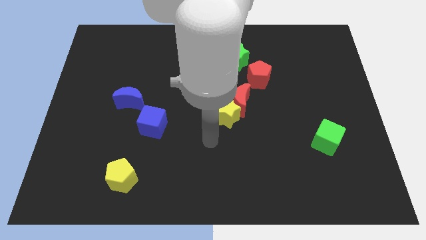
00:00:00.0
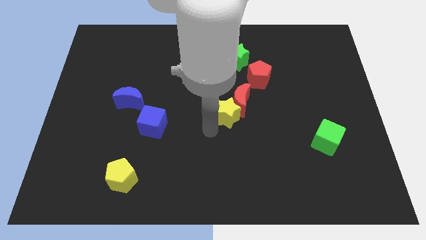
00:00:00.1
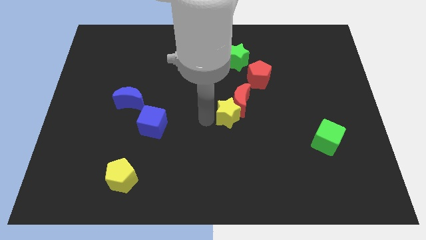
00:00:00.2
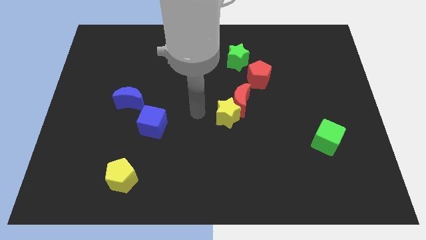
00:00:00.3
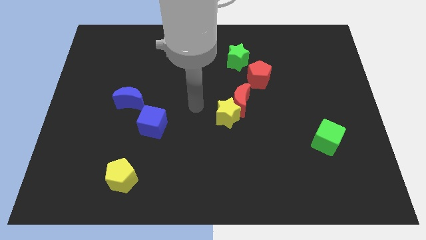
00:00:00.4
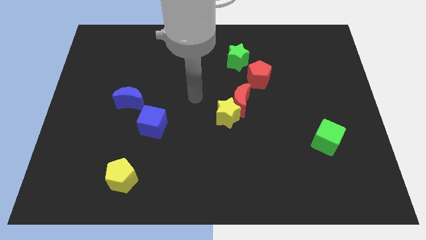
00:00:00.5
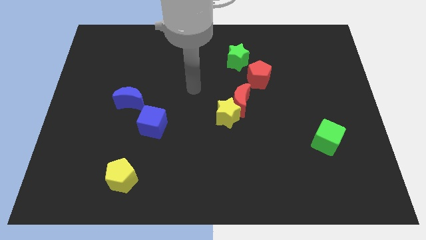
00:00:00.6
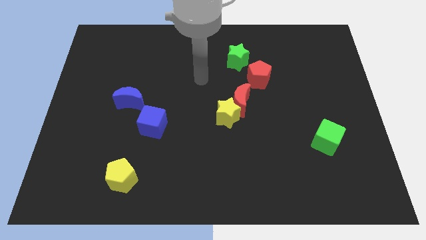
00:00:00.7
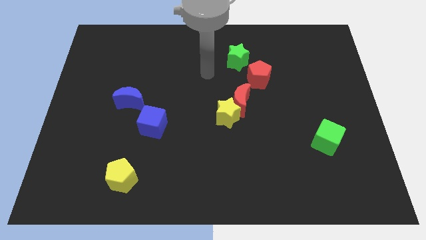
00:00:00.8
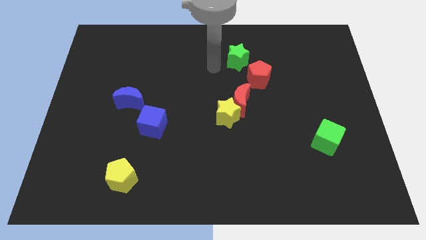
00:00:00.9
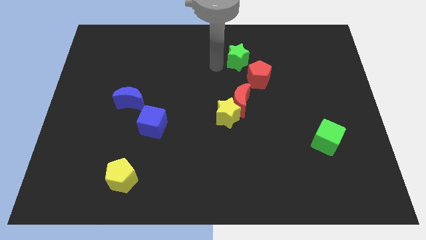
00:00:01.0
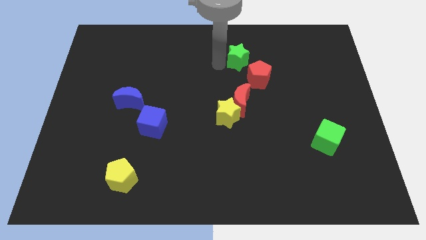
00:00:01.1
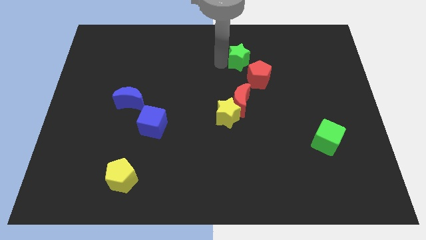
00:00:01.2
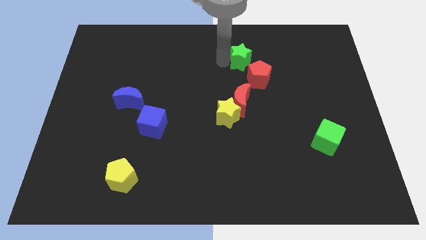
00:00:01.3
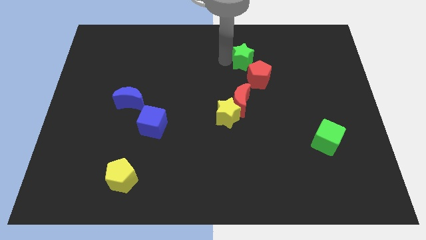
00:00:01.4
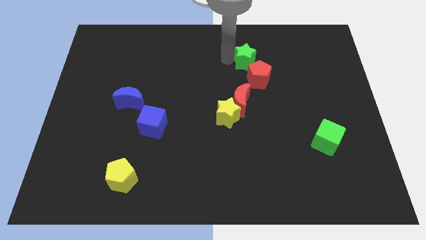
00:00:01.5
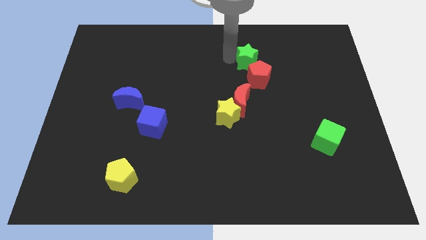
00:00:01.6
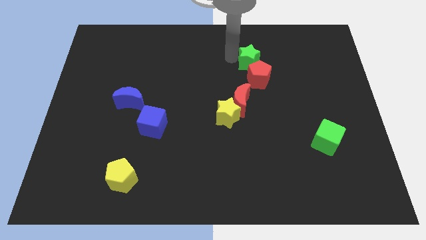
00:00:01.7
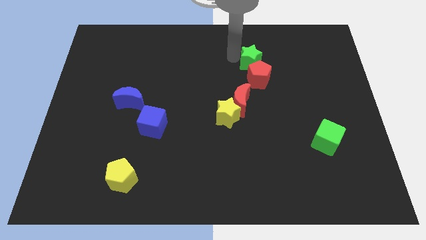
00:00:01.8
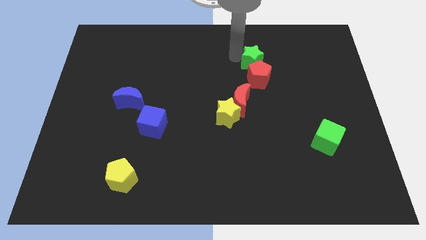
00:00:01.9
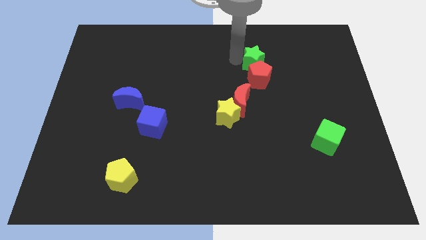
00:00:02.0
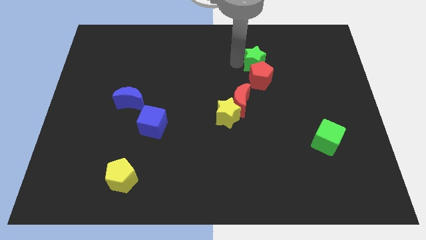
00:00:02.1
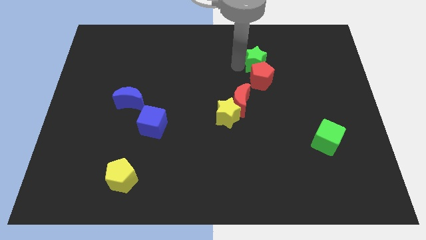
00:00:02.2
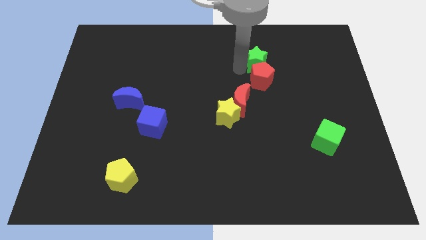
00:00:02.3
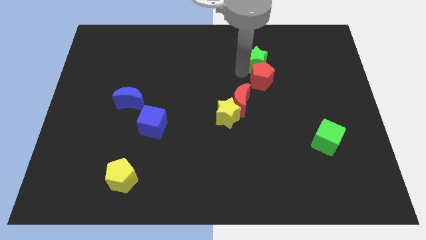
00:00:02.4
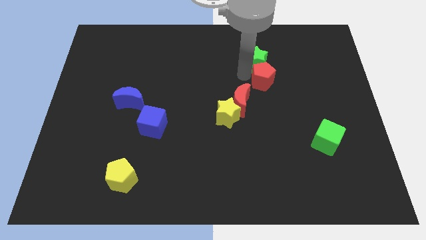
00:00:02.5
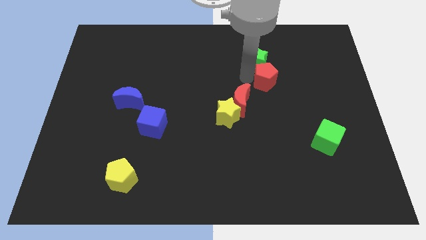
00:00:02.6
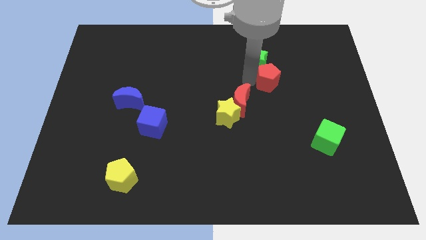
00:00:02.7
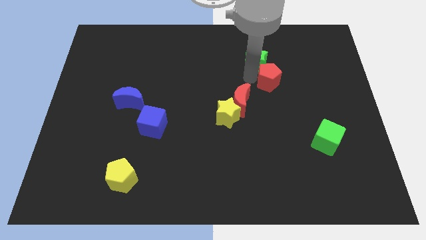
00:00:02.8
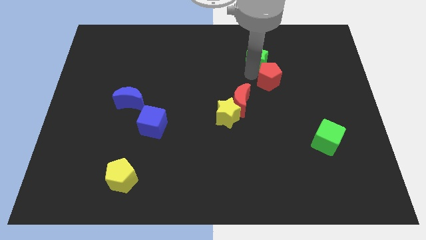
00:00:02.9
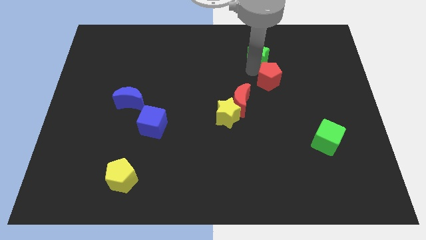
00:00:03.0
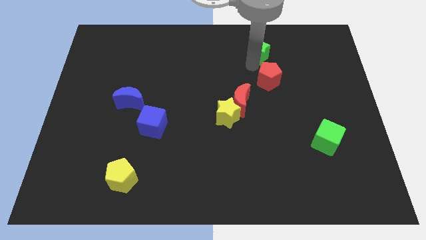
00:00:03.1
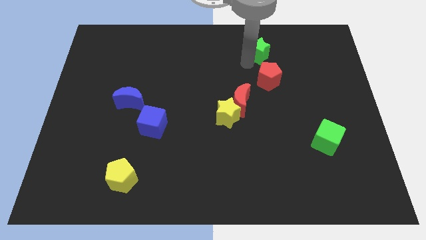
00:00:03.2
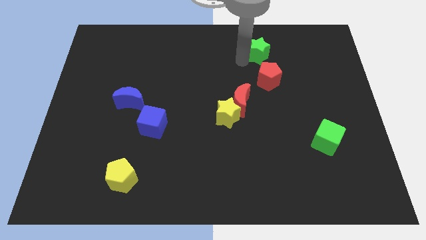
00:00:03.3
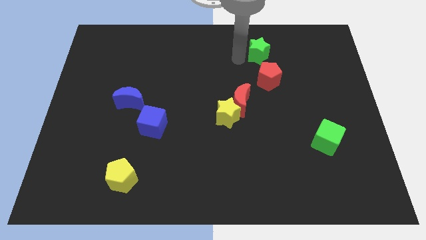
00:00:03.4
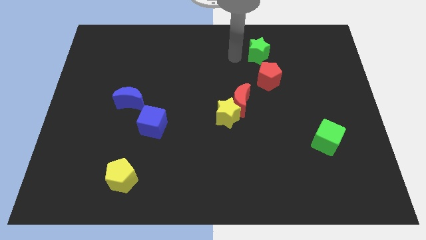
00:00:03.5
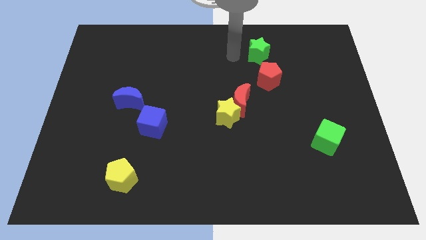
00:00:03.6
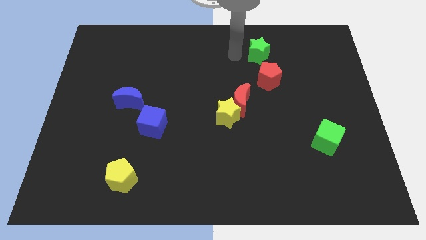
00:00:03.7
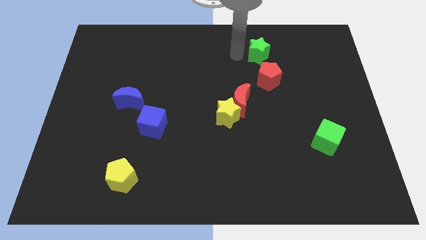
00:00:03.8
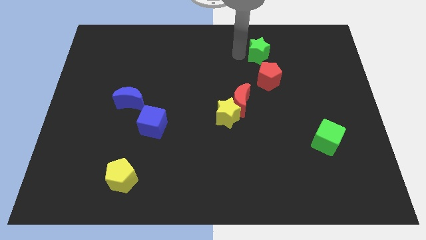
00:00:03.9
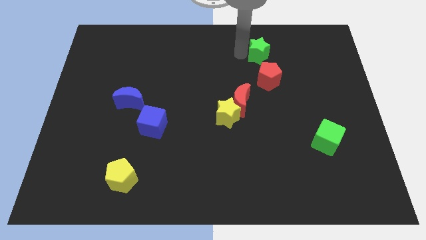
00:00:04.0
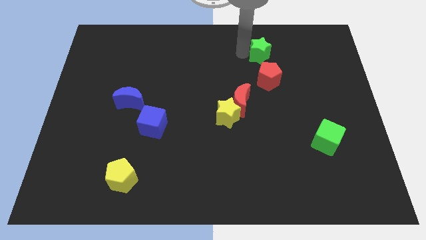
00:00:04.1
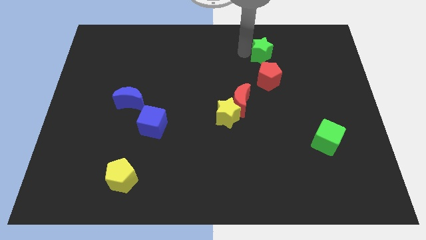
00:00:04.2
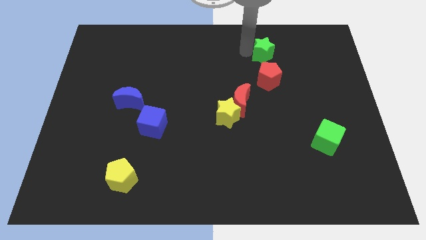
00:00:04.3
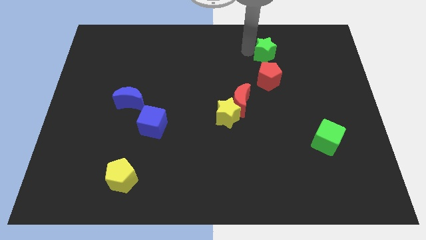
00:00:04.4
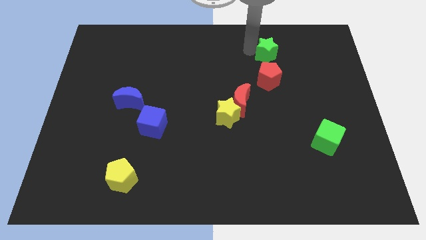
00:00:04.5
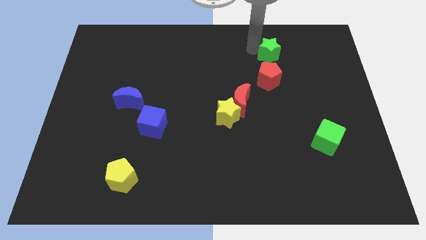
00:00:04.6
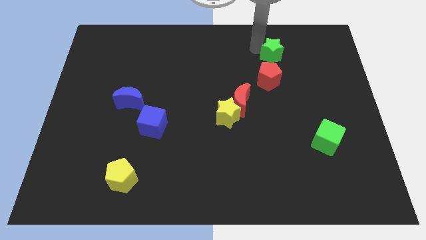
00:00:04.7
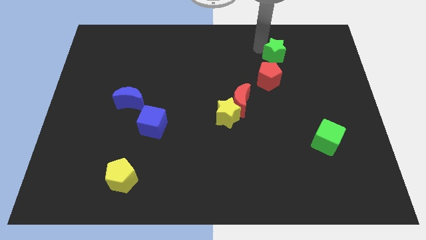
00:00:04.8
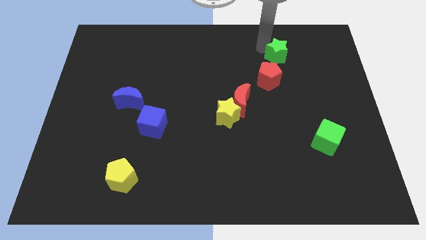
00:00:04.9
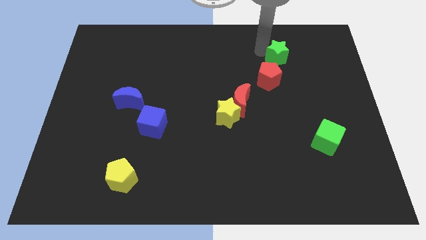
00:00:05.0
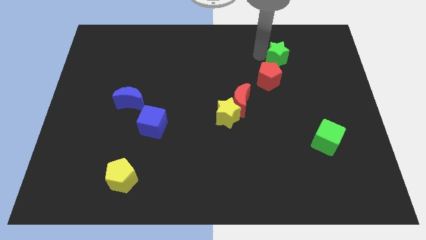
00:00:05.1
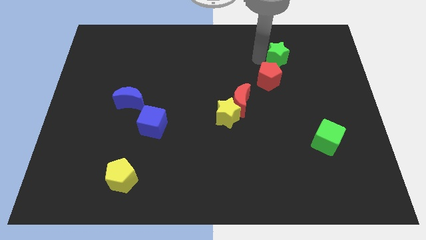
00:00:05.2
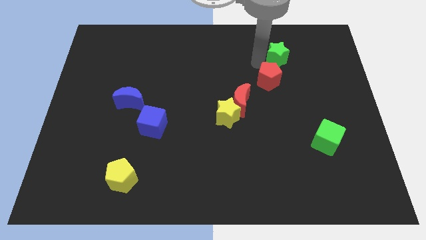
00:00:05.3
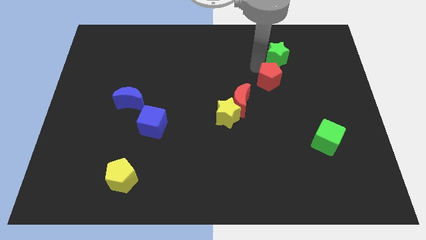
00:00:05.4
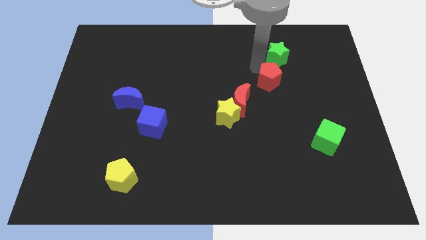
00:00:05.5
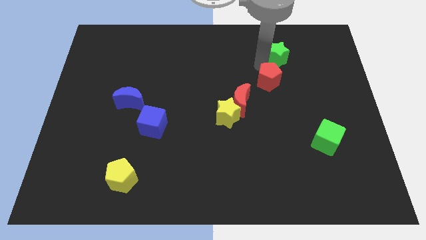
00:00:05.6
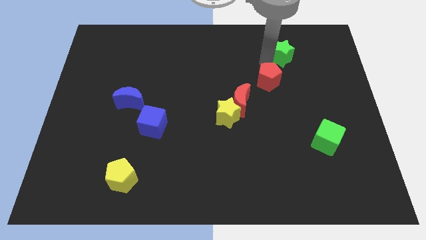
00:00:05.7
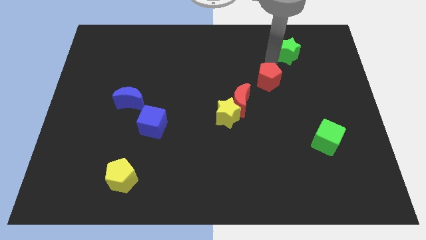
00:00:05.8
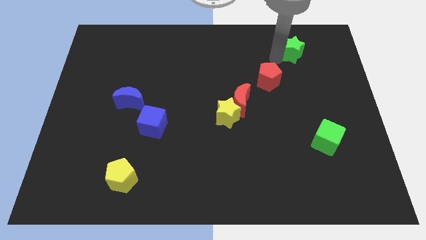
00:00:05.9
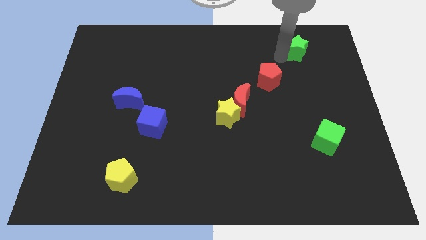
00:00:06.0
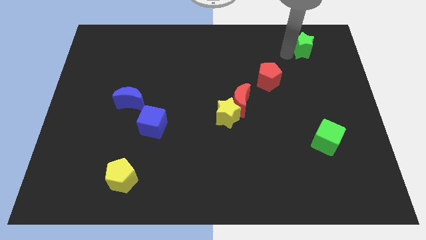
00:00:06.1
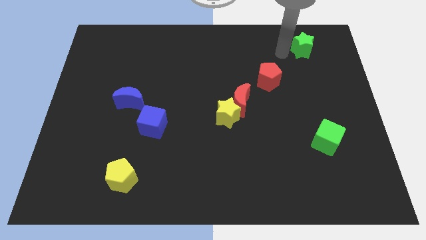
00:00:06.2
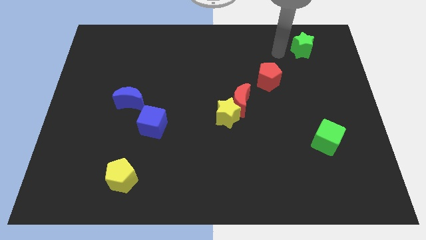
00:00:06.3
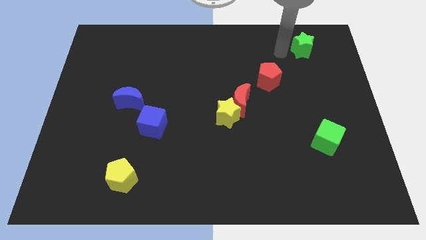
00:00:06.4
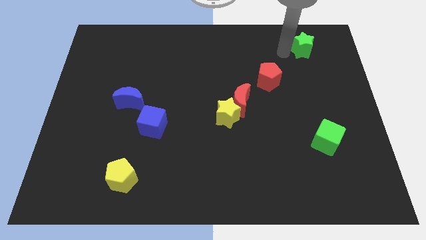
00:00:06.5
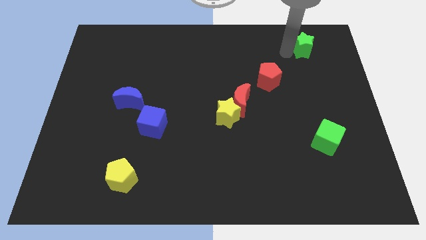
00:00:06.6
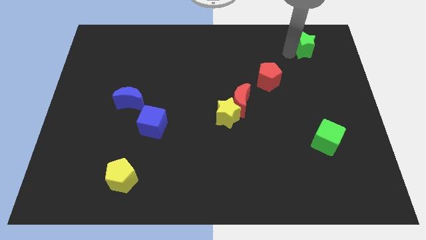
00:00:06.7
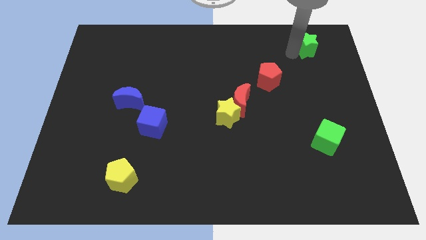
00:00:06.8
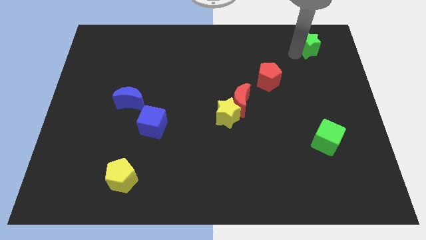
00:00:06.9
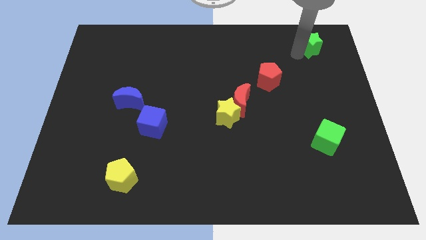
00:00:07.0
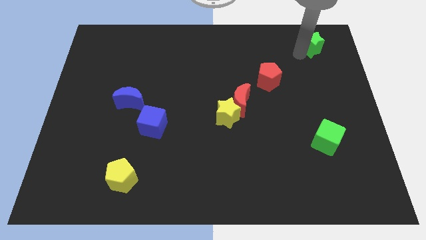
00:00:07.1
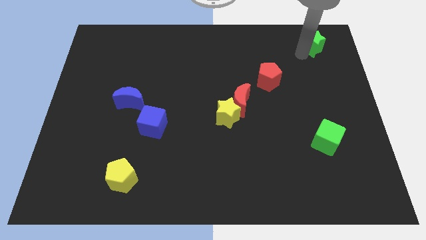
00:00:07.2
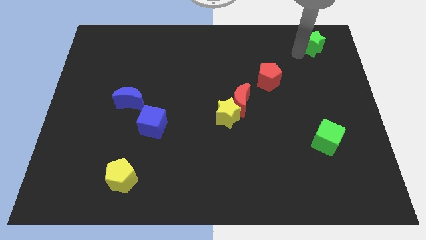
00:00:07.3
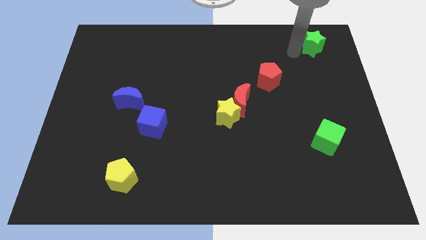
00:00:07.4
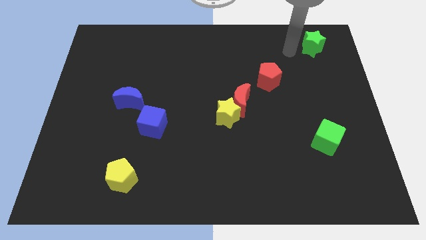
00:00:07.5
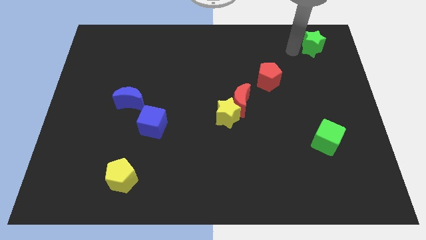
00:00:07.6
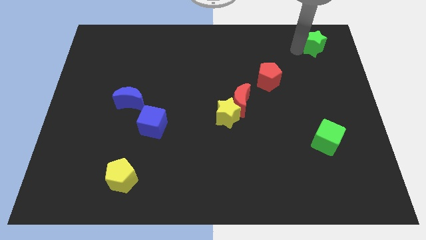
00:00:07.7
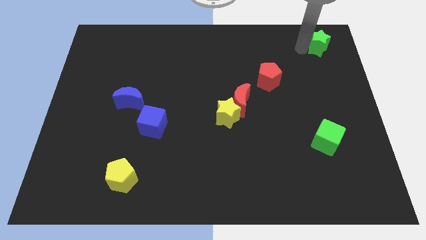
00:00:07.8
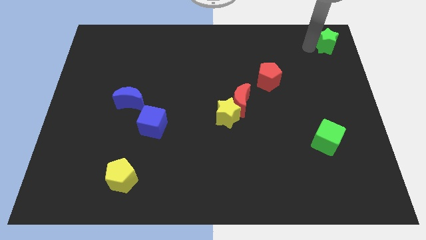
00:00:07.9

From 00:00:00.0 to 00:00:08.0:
move the green star to the top right
